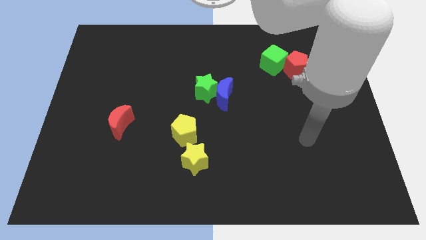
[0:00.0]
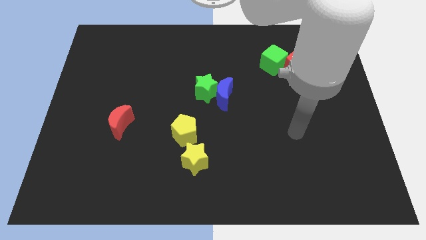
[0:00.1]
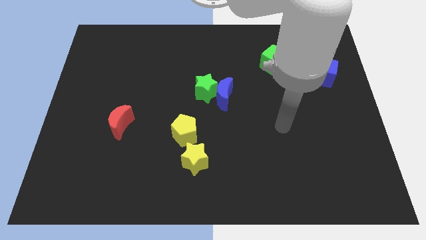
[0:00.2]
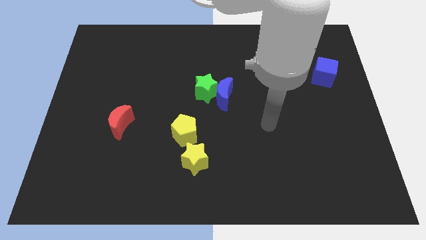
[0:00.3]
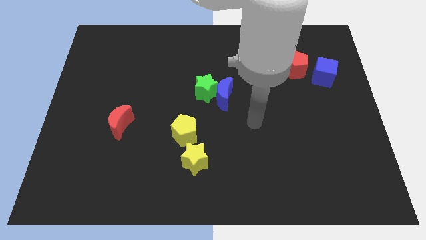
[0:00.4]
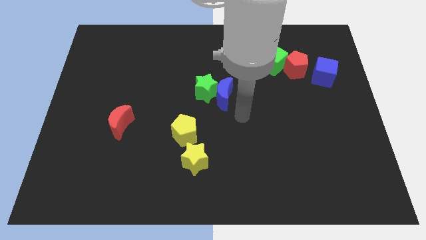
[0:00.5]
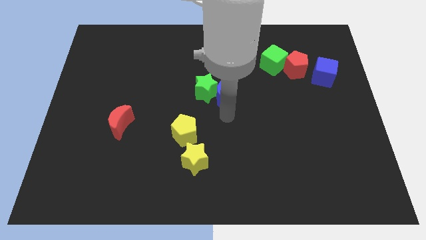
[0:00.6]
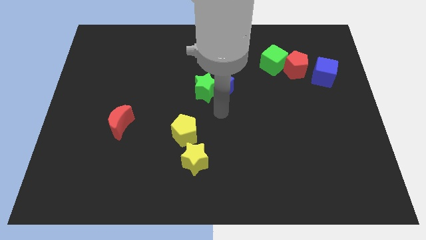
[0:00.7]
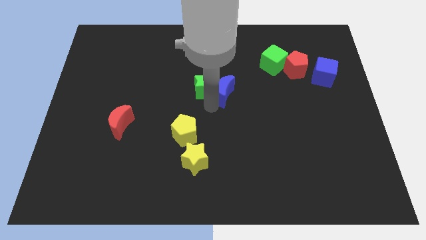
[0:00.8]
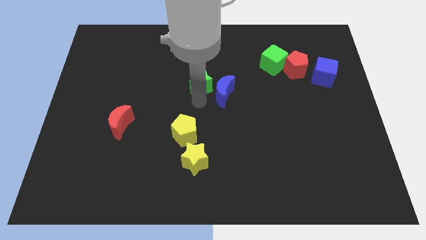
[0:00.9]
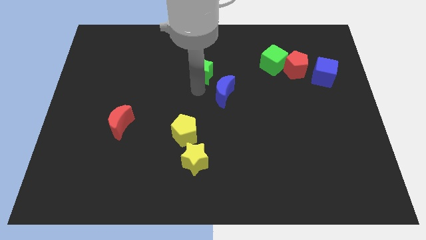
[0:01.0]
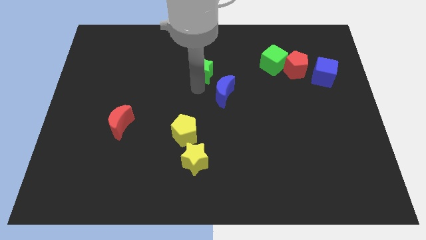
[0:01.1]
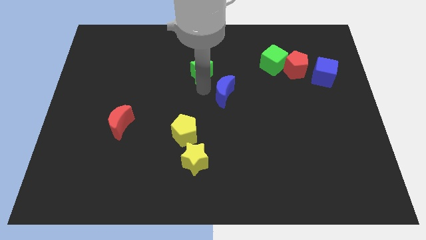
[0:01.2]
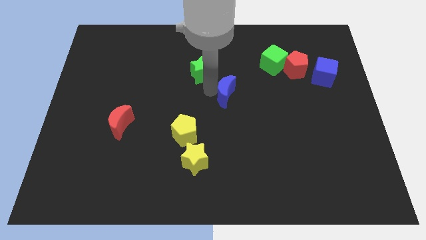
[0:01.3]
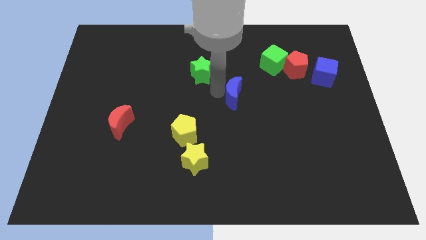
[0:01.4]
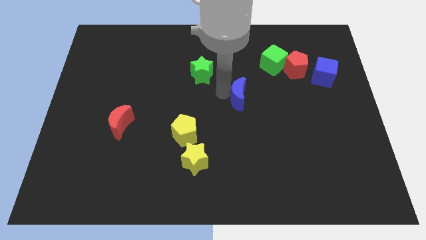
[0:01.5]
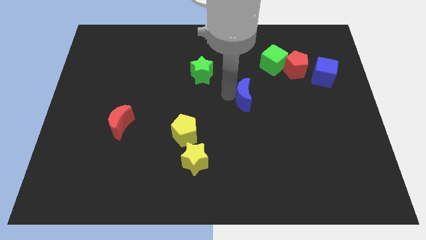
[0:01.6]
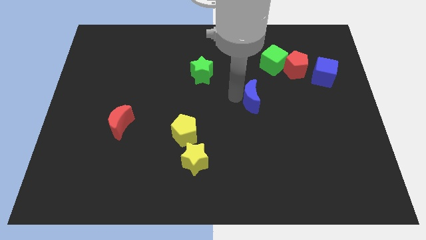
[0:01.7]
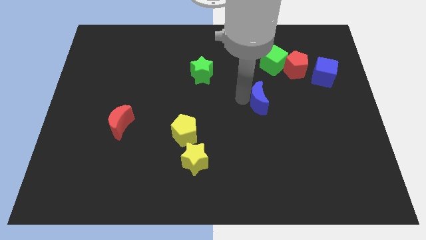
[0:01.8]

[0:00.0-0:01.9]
slide the blue moon right a little bit

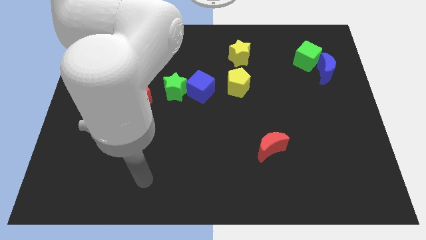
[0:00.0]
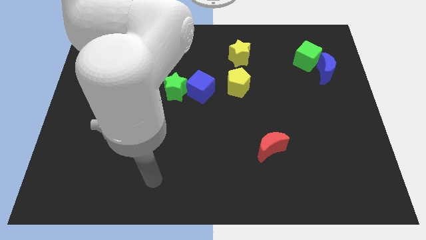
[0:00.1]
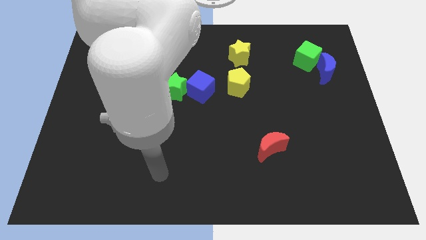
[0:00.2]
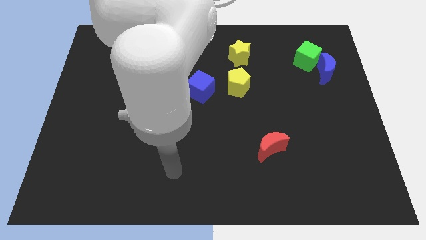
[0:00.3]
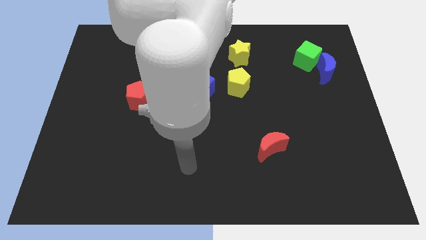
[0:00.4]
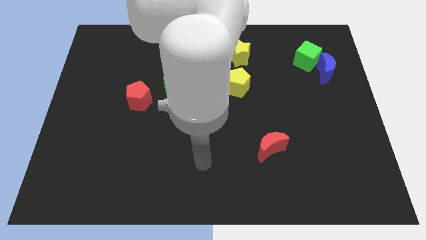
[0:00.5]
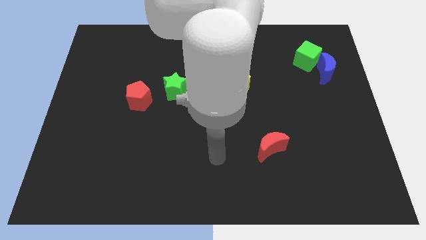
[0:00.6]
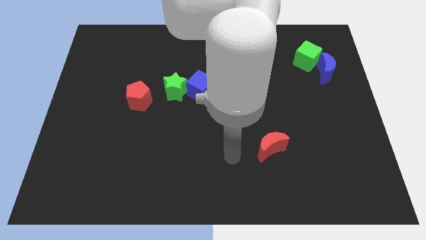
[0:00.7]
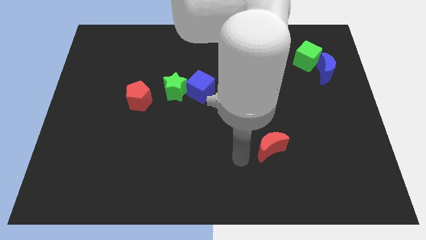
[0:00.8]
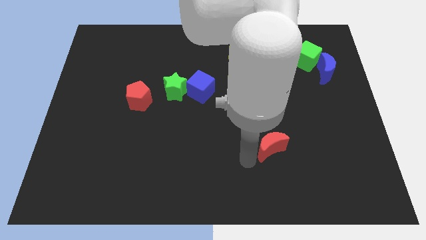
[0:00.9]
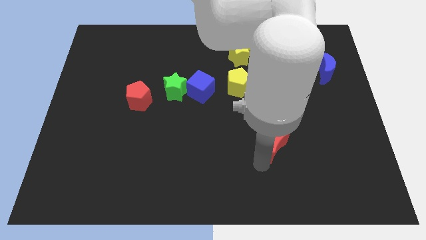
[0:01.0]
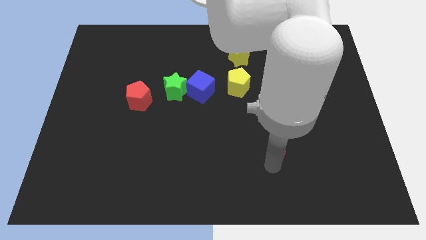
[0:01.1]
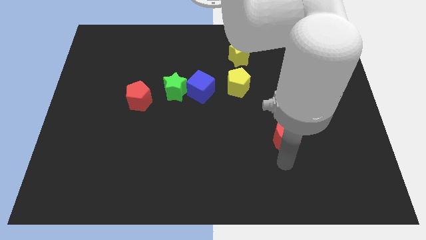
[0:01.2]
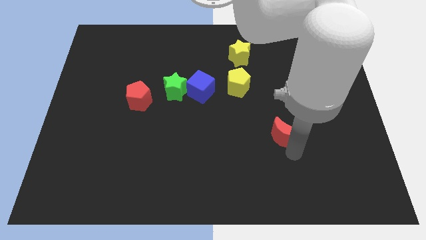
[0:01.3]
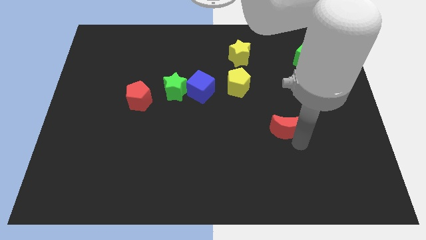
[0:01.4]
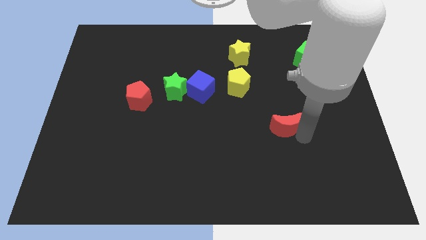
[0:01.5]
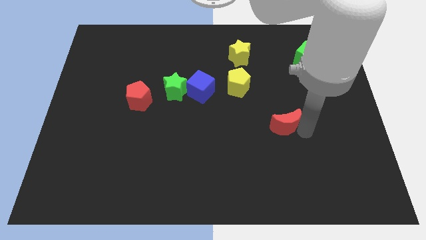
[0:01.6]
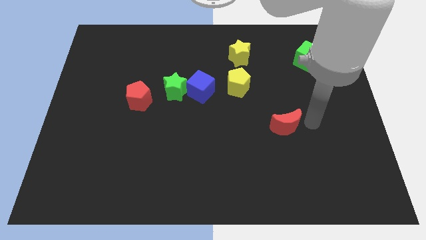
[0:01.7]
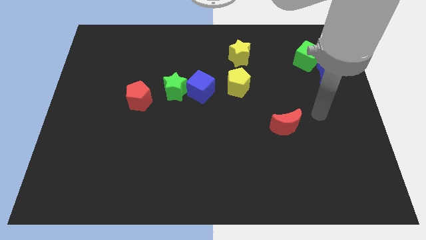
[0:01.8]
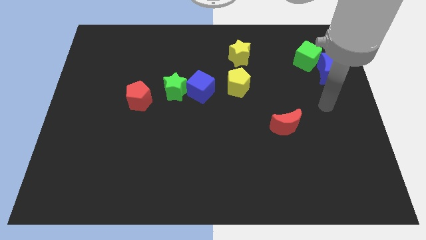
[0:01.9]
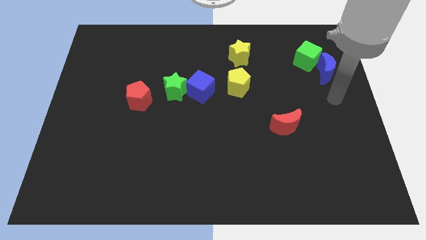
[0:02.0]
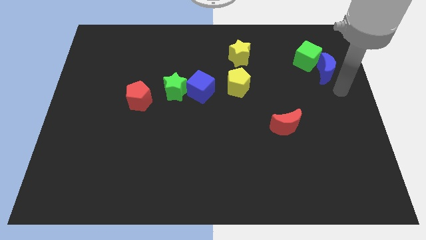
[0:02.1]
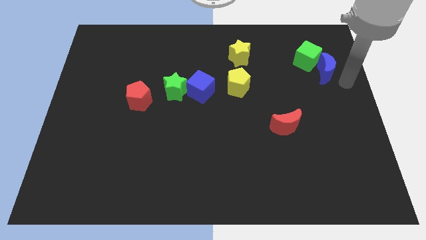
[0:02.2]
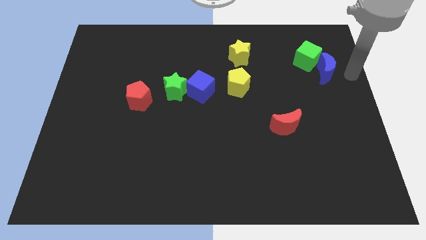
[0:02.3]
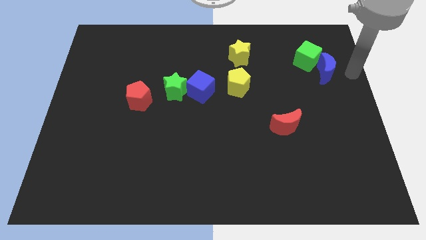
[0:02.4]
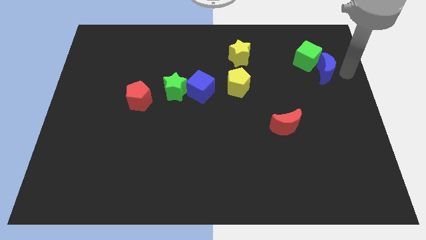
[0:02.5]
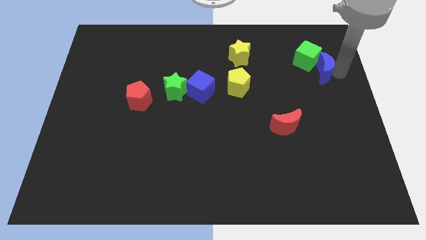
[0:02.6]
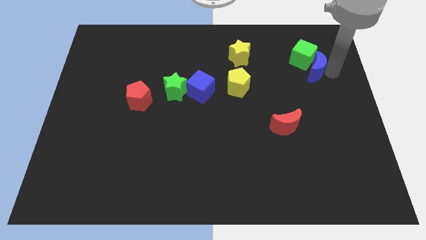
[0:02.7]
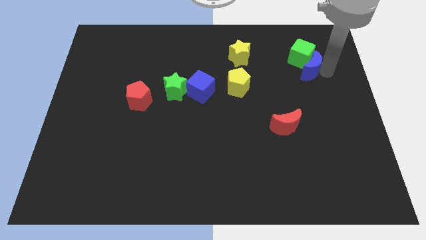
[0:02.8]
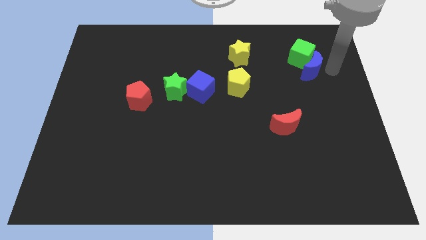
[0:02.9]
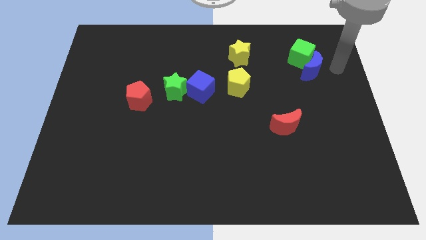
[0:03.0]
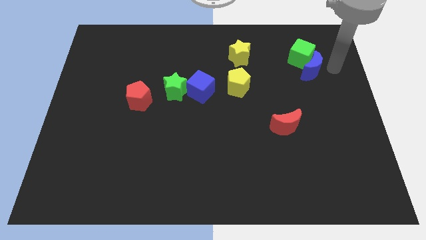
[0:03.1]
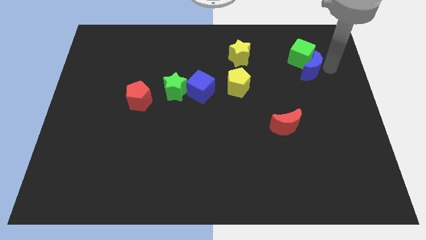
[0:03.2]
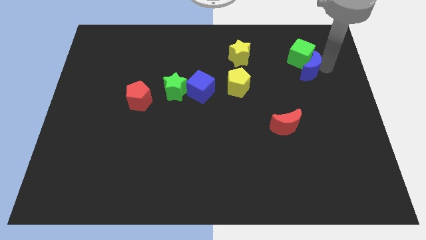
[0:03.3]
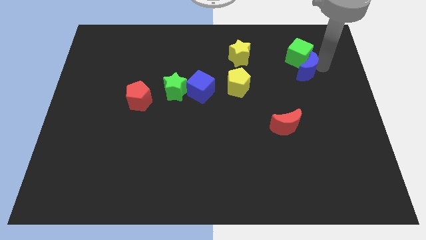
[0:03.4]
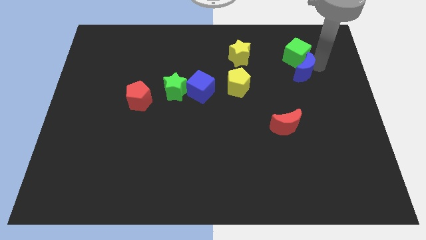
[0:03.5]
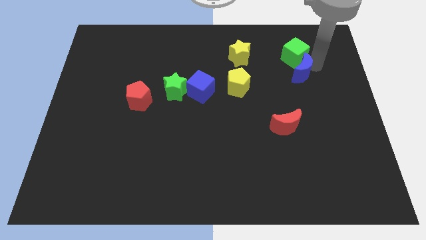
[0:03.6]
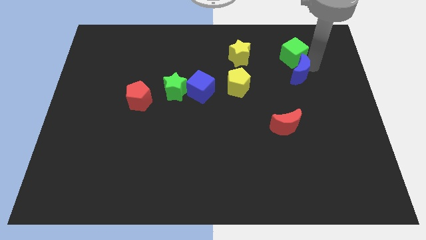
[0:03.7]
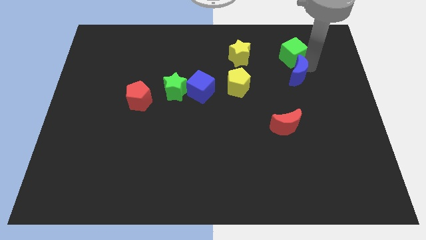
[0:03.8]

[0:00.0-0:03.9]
slide the blue moon to the left somewhat

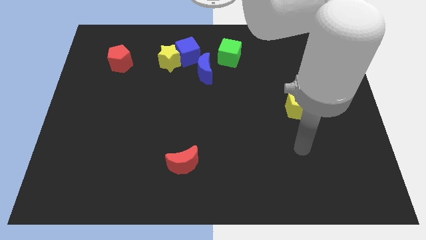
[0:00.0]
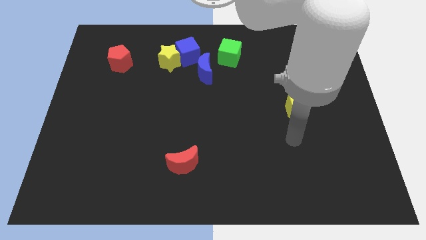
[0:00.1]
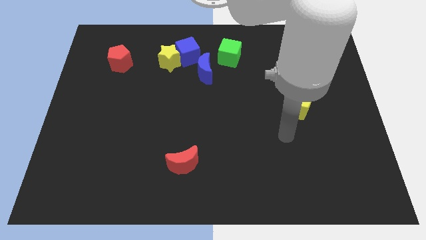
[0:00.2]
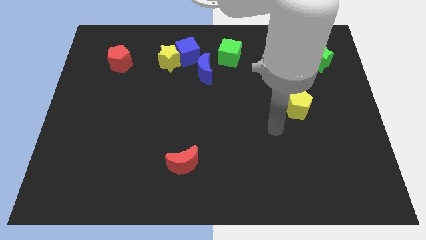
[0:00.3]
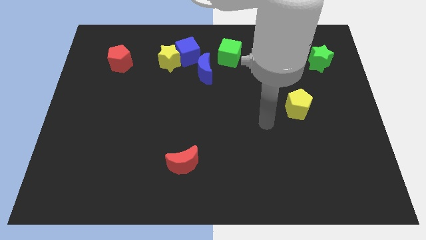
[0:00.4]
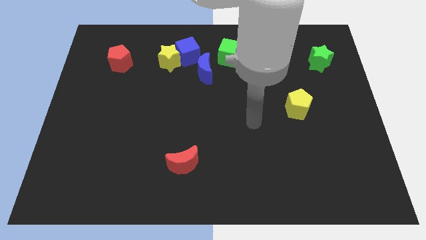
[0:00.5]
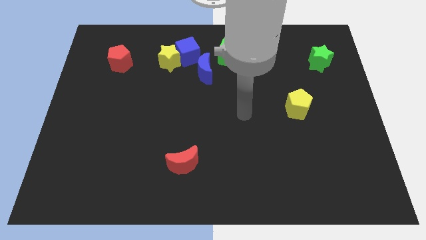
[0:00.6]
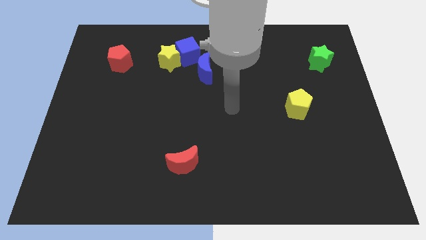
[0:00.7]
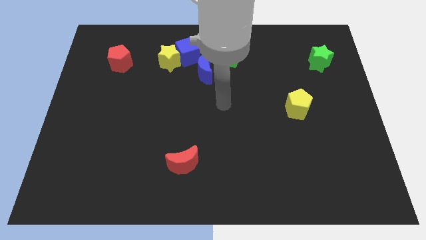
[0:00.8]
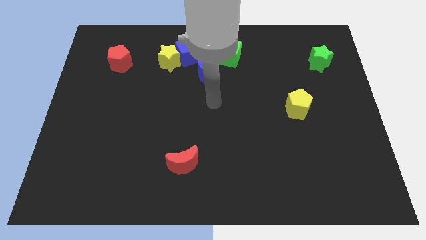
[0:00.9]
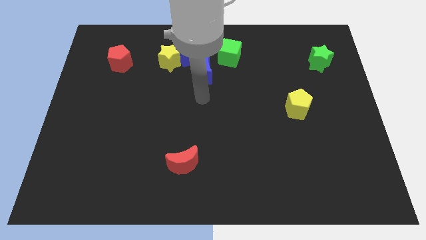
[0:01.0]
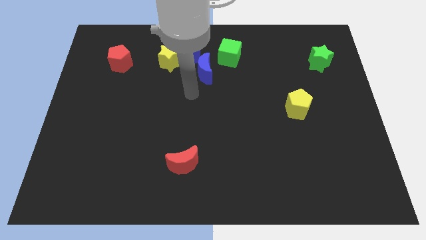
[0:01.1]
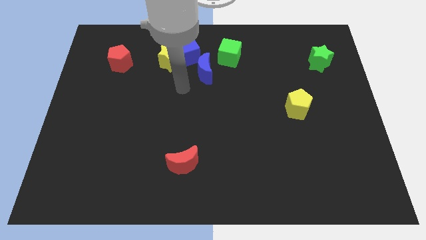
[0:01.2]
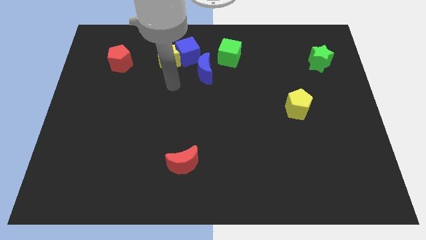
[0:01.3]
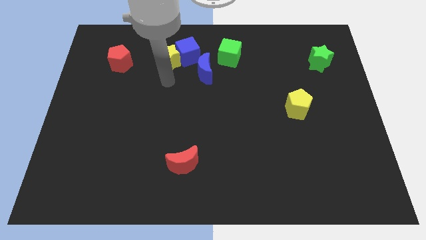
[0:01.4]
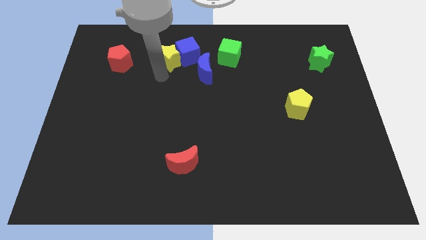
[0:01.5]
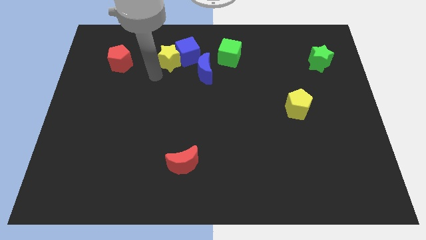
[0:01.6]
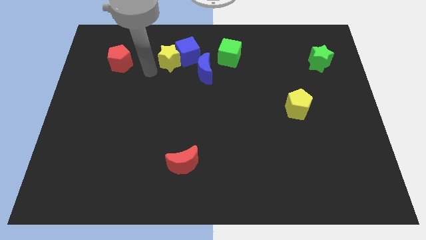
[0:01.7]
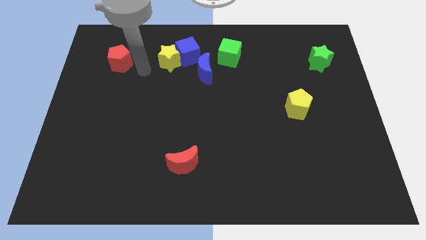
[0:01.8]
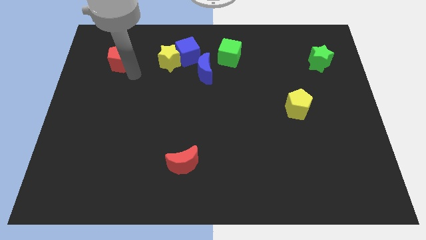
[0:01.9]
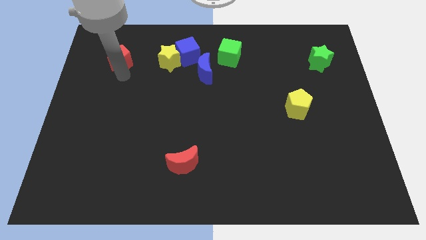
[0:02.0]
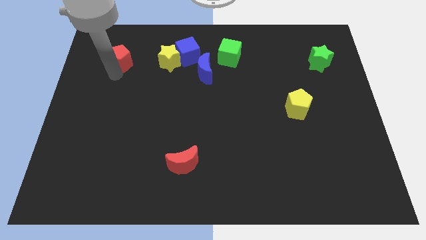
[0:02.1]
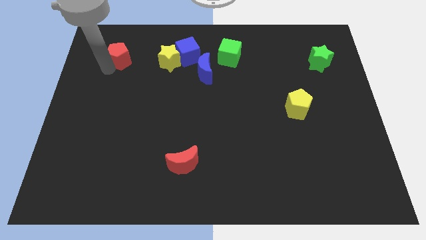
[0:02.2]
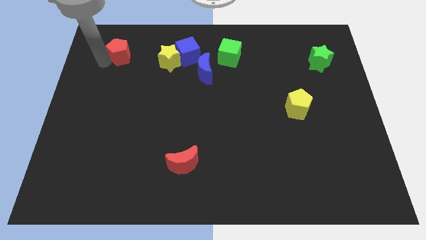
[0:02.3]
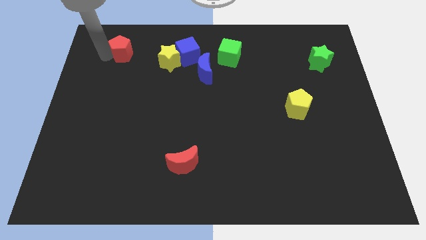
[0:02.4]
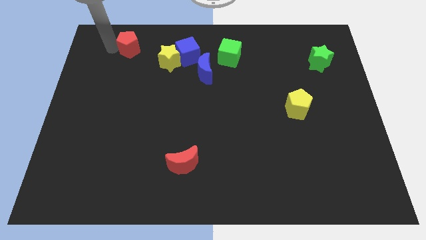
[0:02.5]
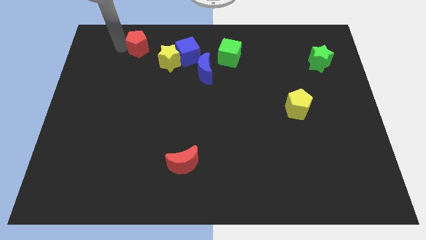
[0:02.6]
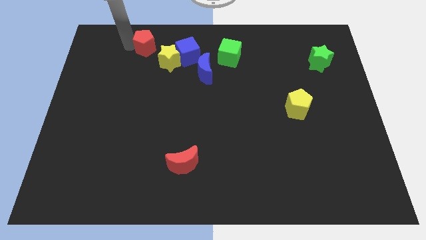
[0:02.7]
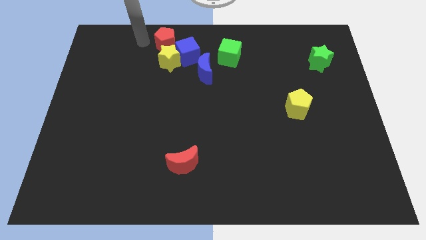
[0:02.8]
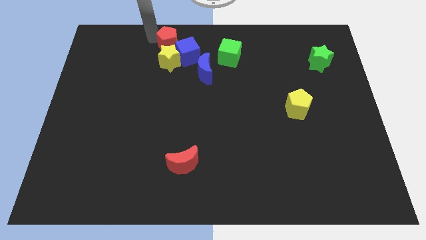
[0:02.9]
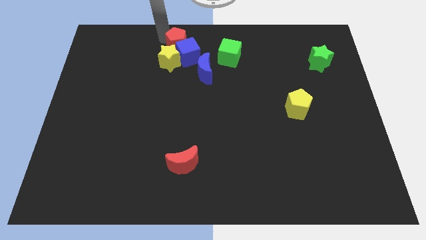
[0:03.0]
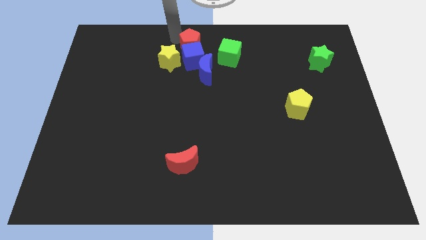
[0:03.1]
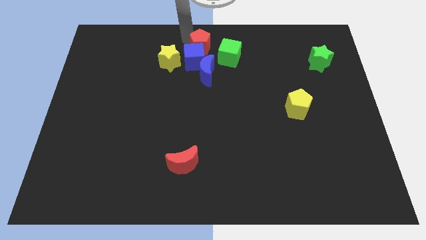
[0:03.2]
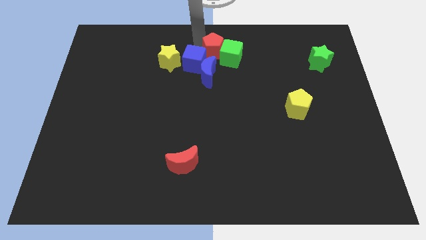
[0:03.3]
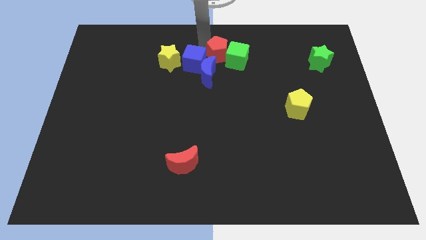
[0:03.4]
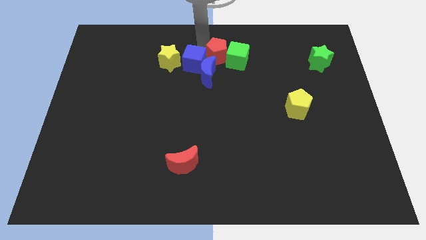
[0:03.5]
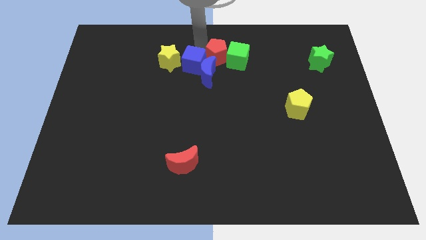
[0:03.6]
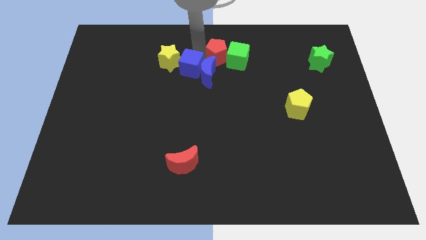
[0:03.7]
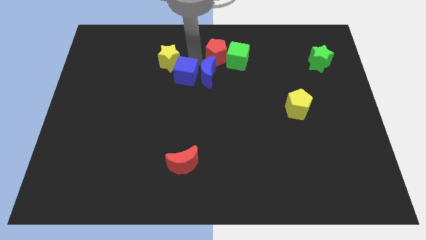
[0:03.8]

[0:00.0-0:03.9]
move the blue cube down a little bit
